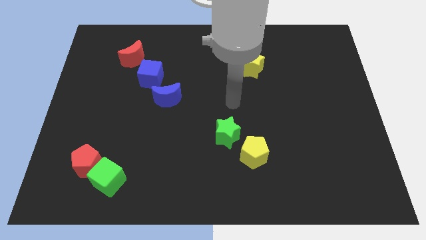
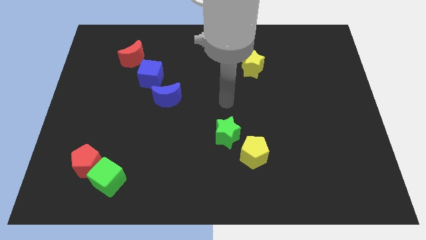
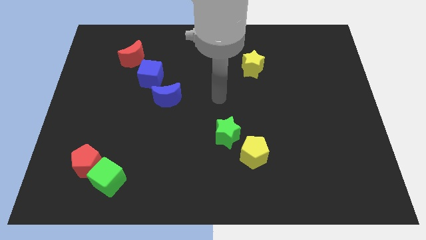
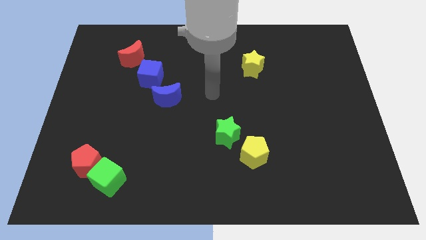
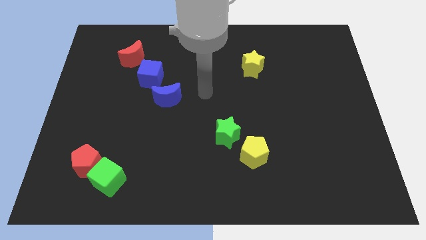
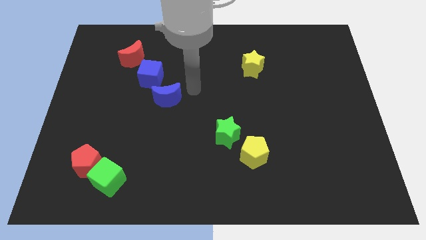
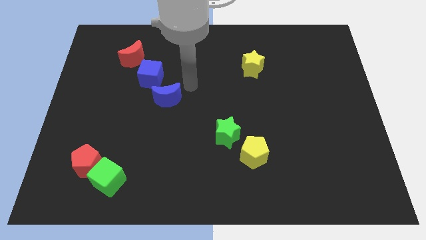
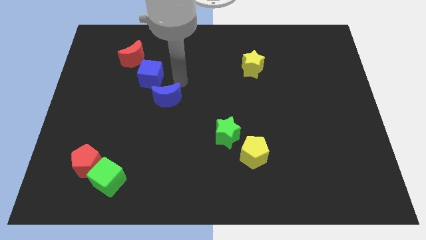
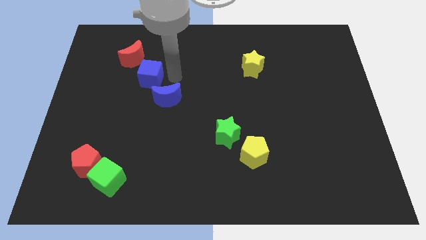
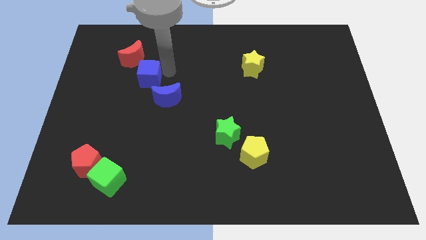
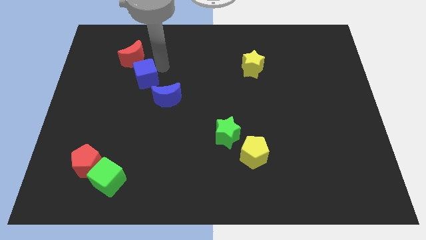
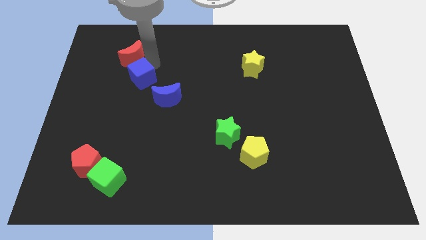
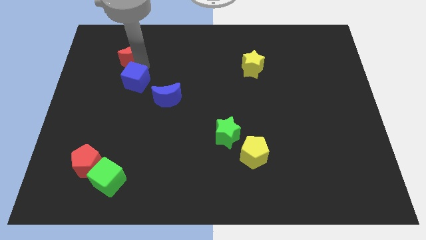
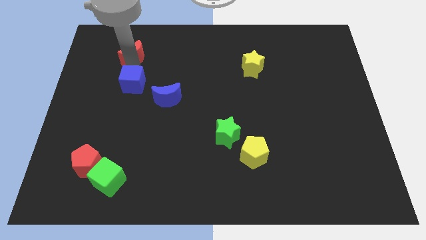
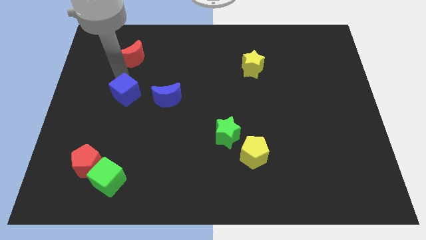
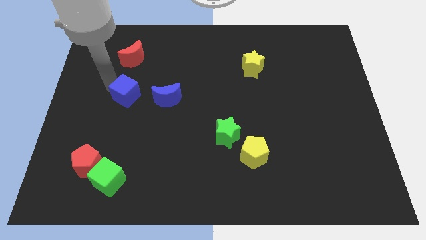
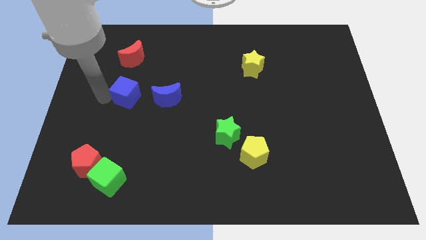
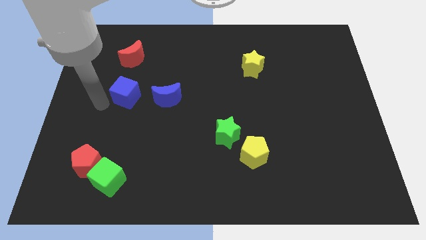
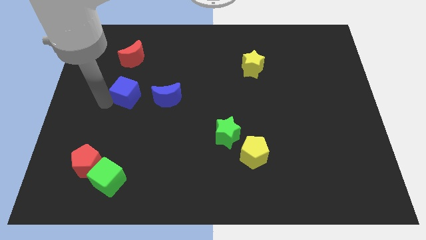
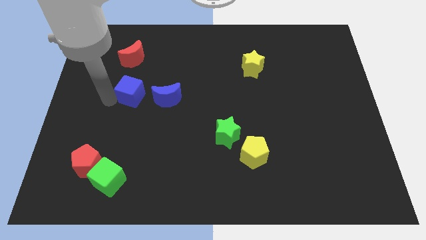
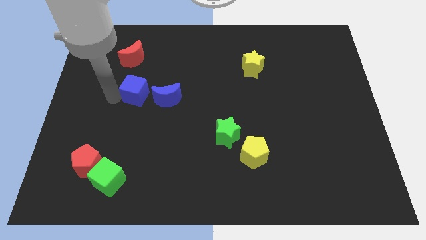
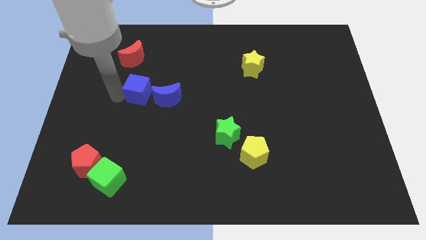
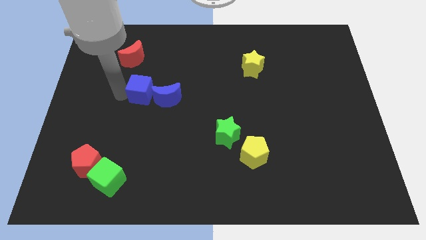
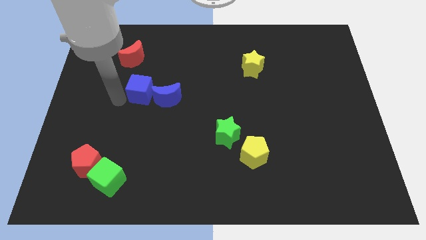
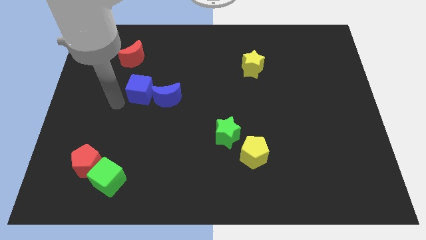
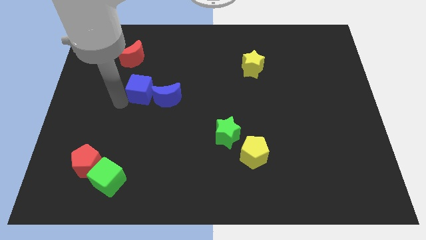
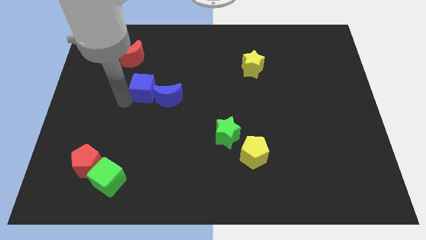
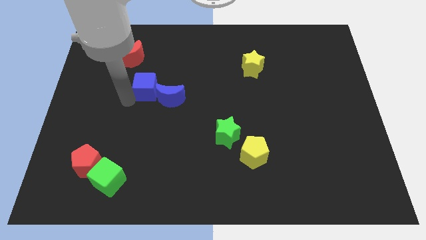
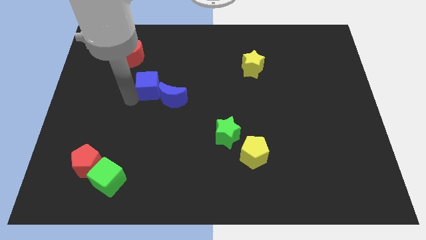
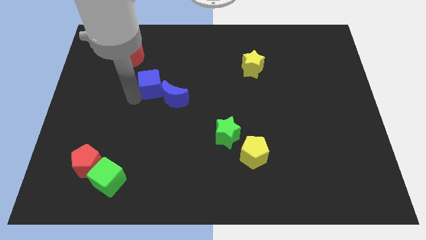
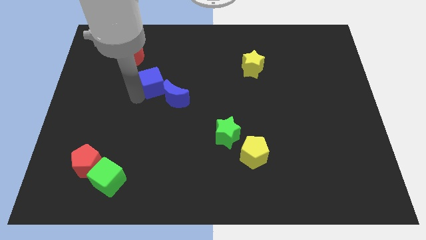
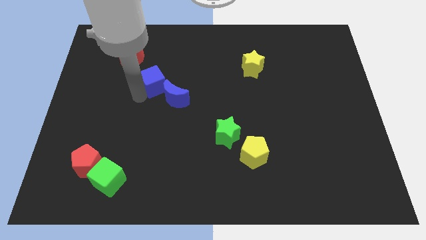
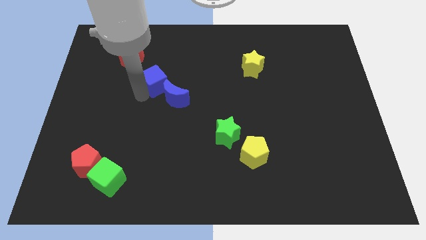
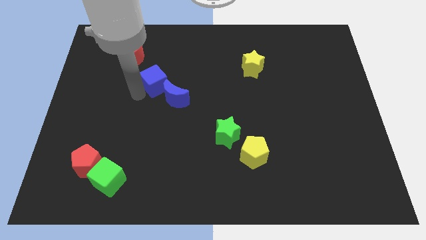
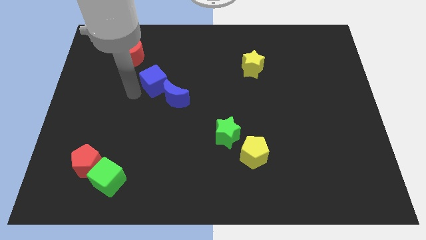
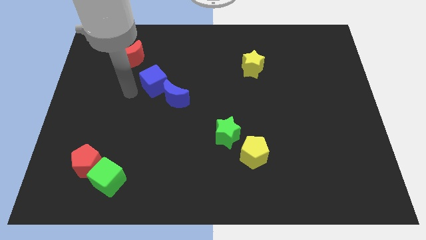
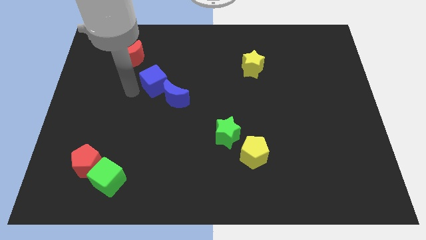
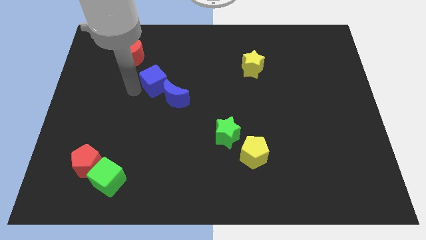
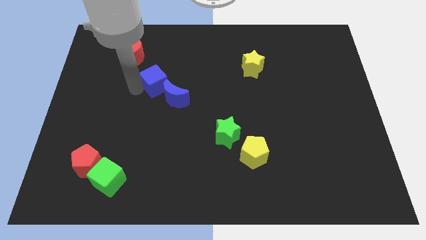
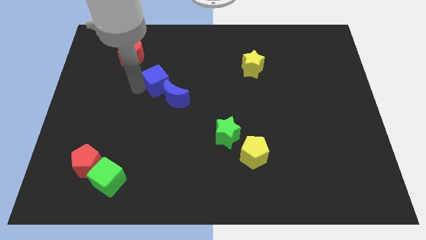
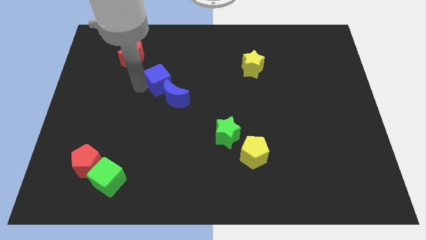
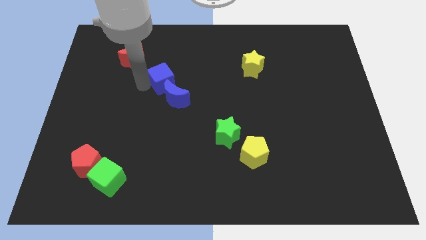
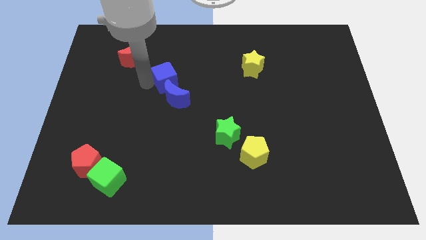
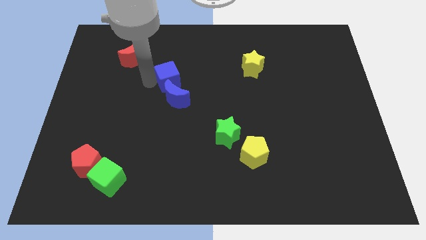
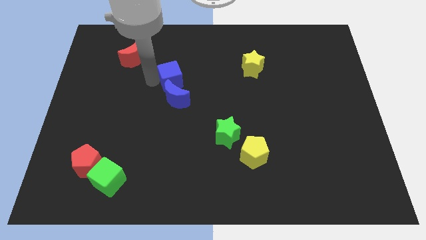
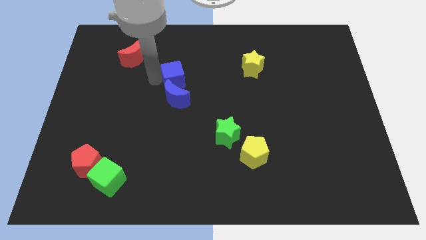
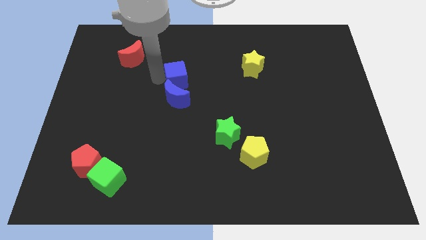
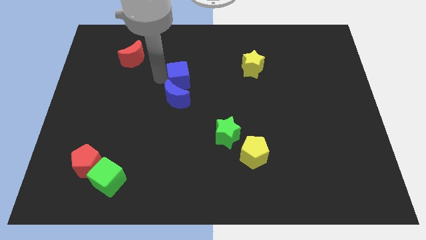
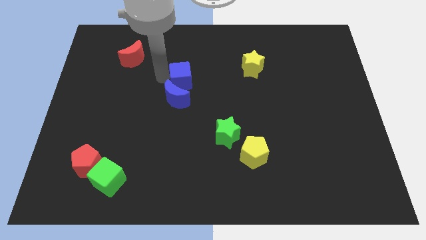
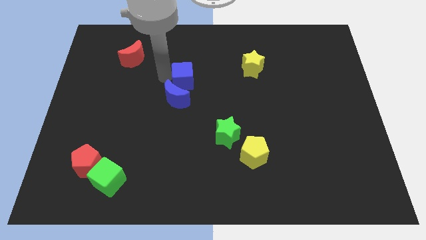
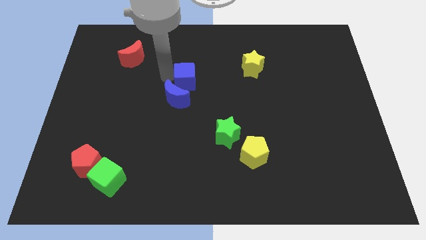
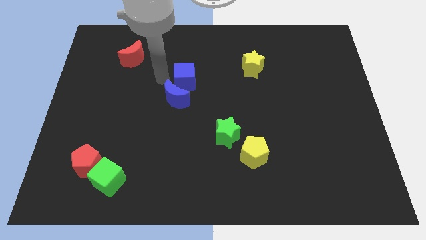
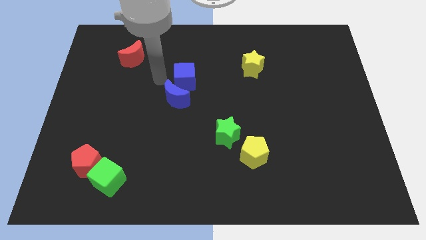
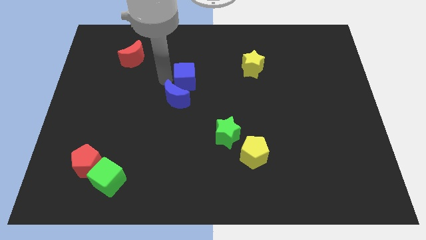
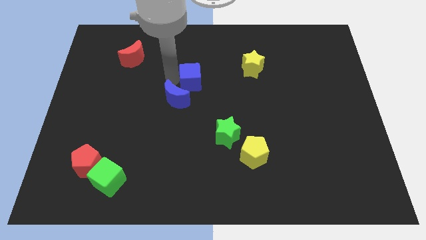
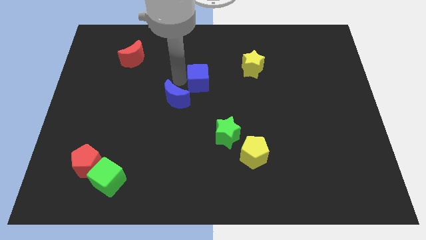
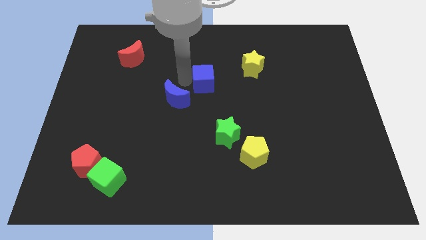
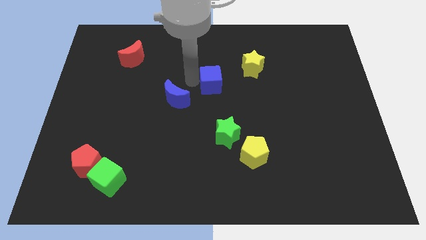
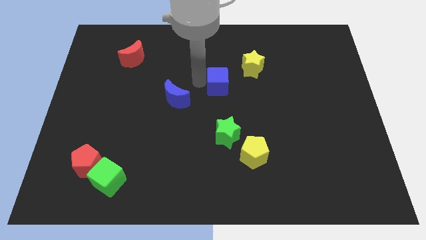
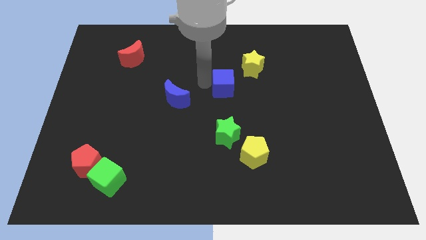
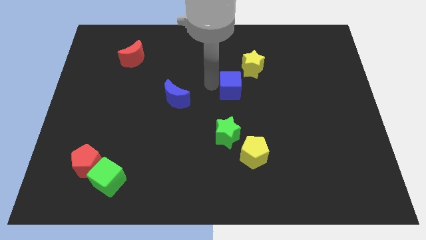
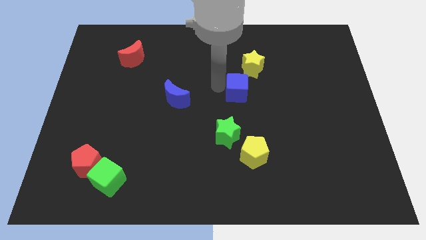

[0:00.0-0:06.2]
slide the blue cube right

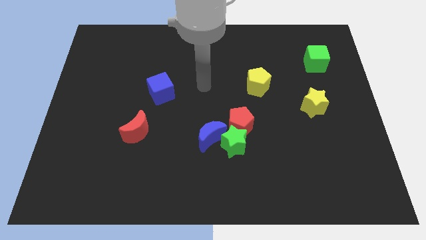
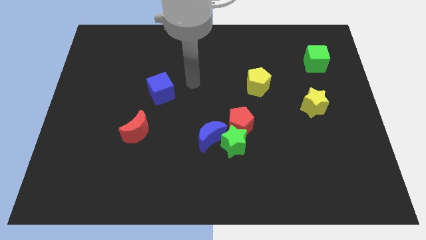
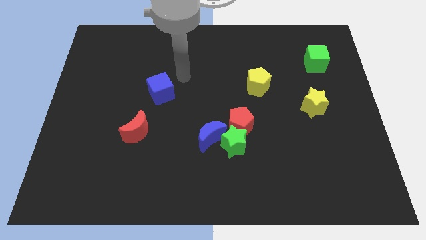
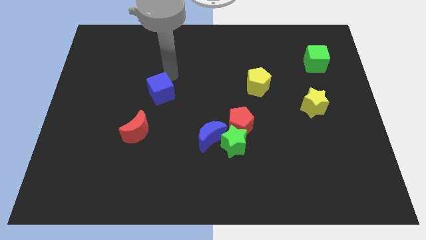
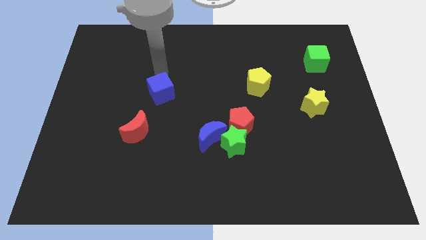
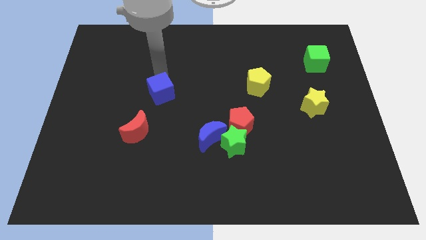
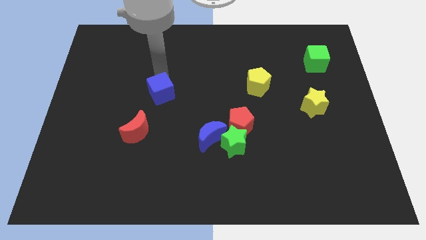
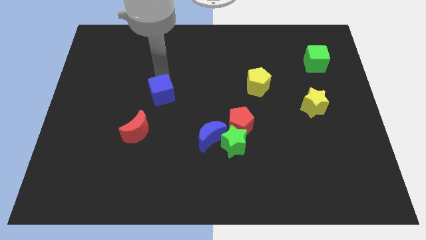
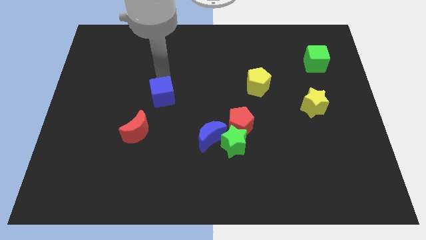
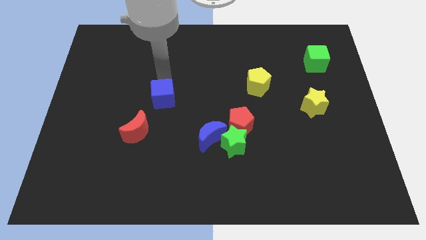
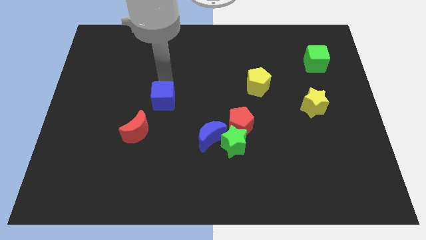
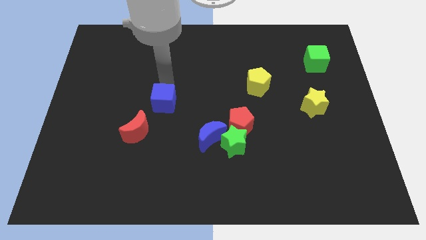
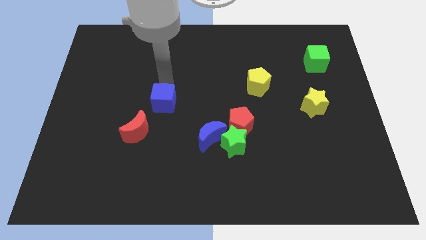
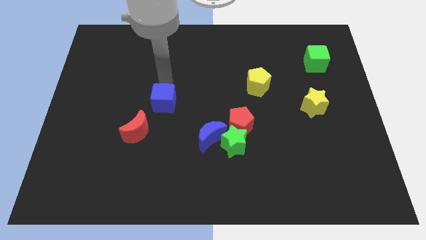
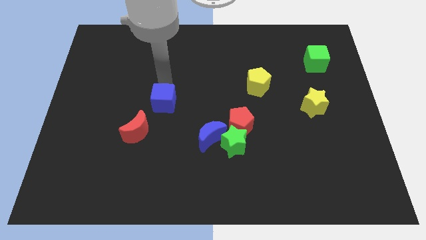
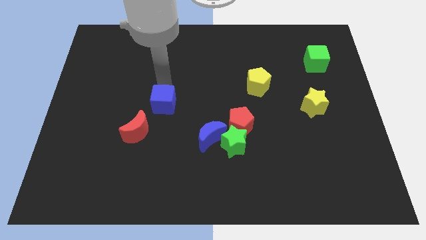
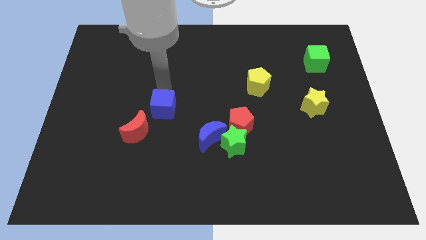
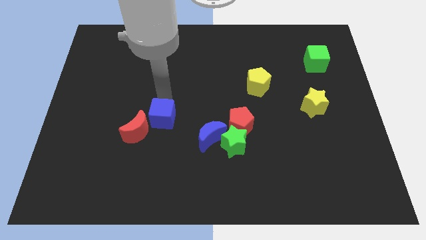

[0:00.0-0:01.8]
slide the blue cube down a little
